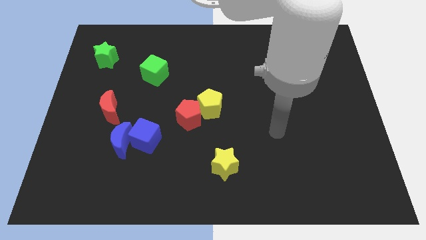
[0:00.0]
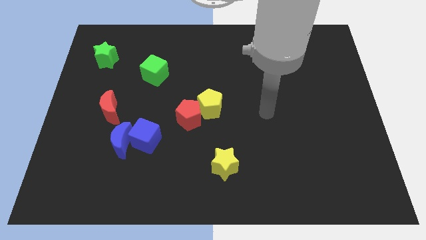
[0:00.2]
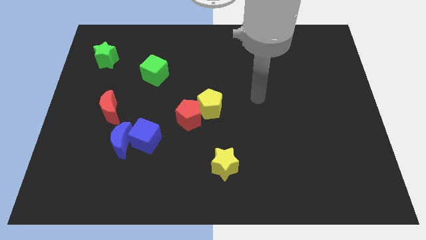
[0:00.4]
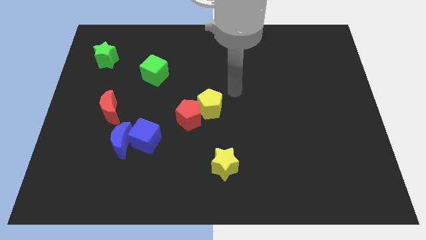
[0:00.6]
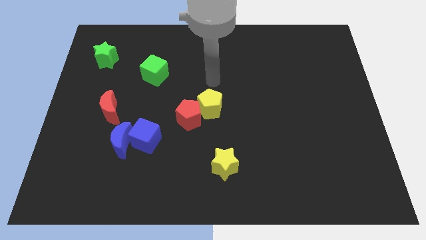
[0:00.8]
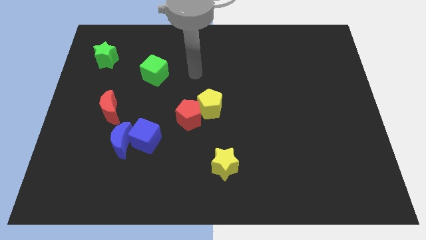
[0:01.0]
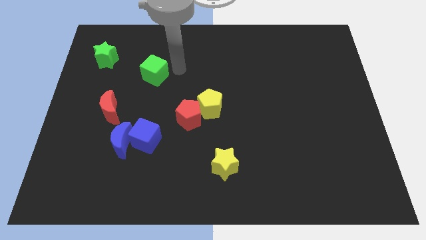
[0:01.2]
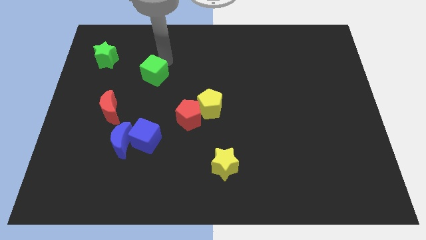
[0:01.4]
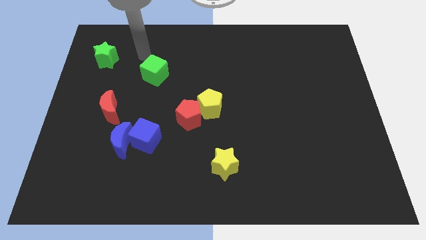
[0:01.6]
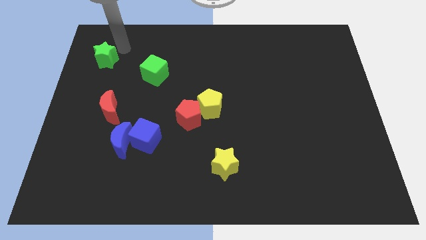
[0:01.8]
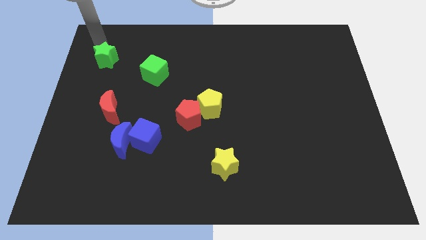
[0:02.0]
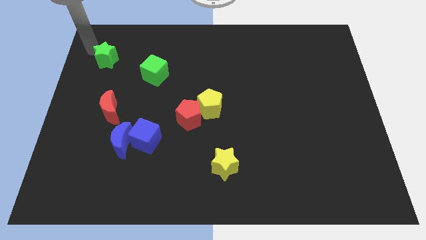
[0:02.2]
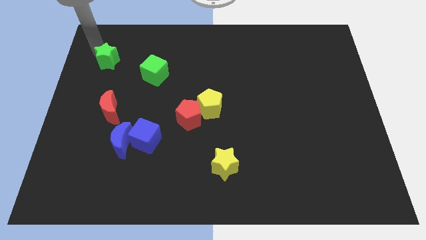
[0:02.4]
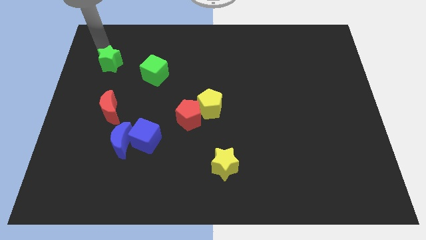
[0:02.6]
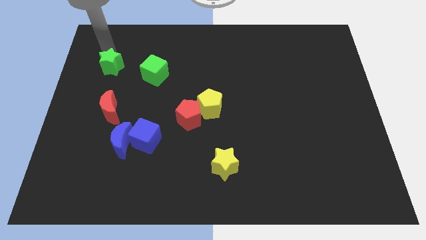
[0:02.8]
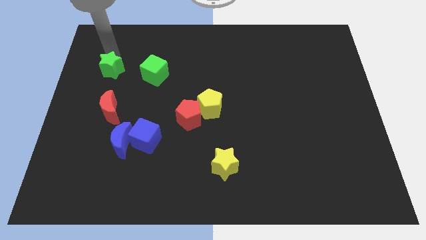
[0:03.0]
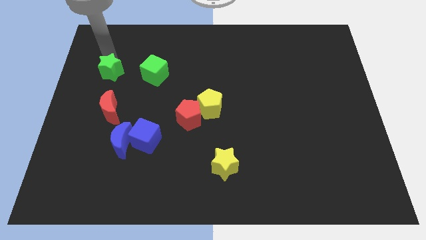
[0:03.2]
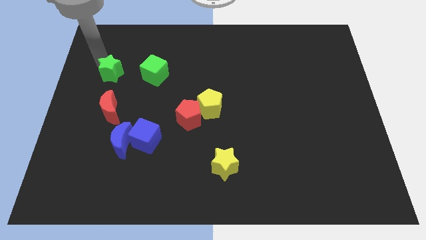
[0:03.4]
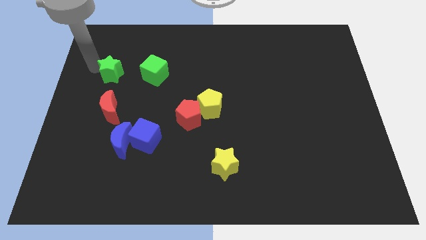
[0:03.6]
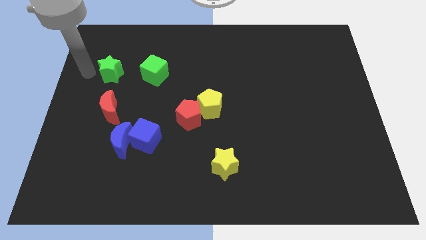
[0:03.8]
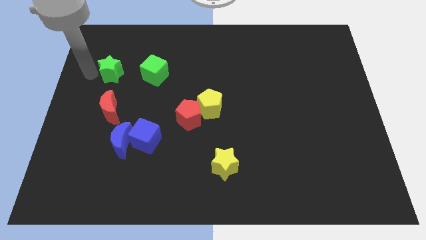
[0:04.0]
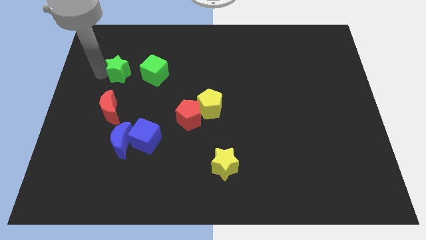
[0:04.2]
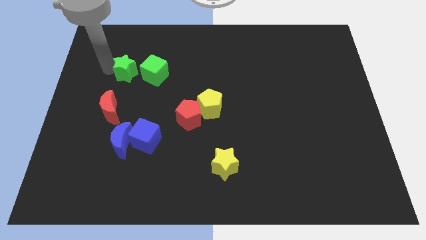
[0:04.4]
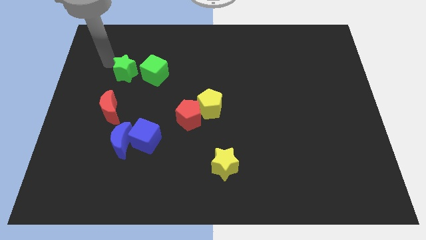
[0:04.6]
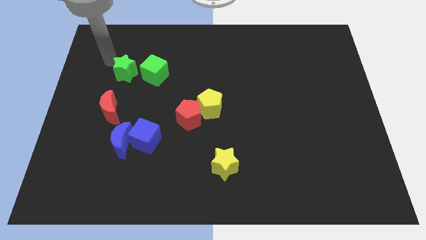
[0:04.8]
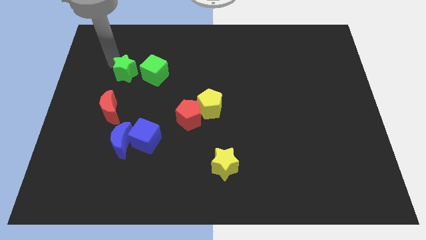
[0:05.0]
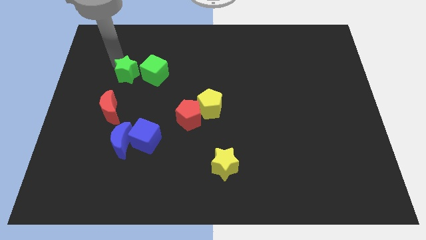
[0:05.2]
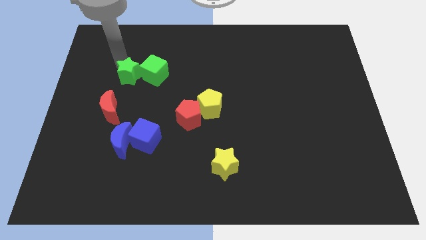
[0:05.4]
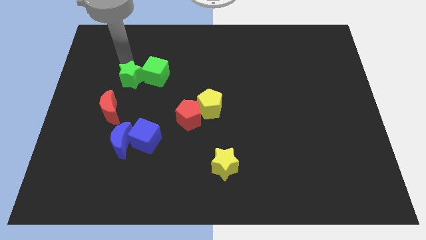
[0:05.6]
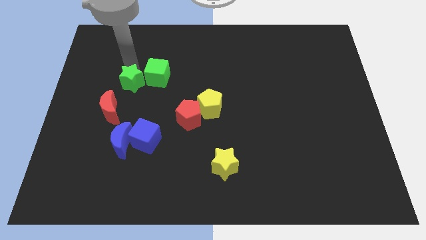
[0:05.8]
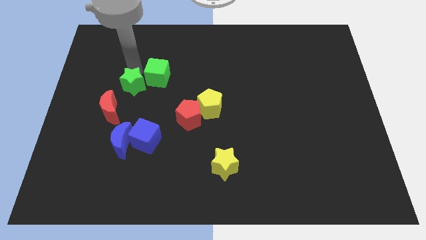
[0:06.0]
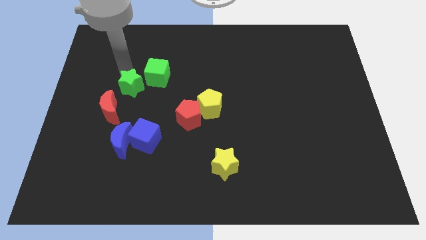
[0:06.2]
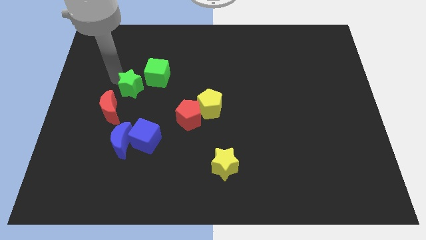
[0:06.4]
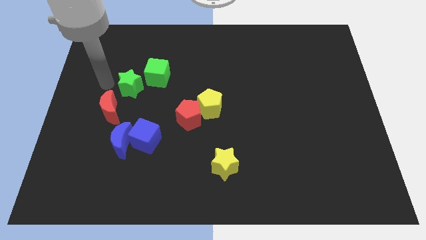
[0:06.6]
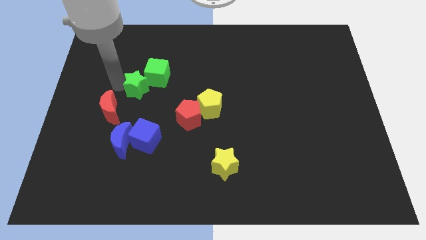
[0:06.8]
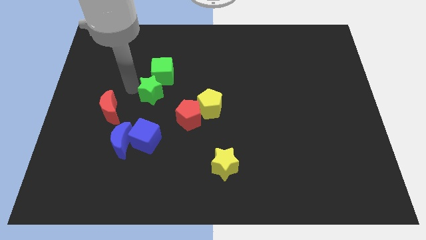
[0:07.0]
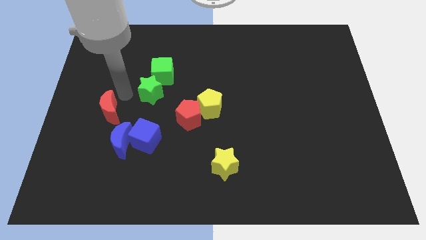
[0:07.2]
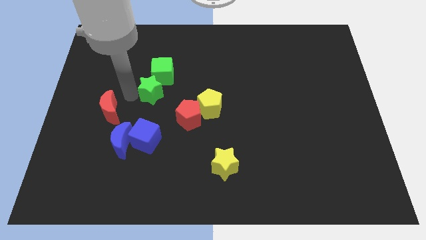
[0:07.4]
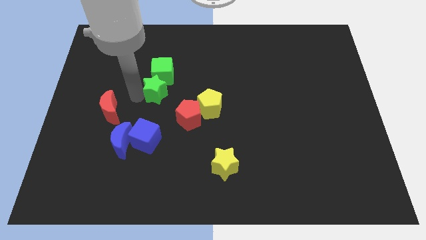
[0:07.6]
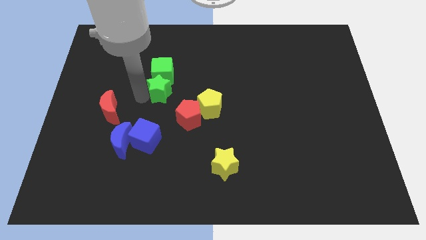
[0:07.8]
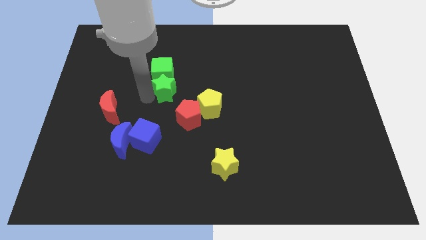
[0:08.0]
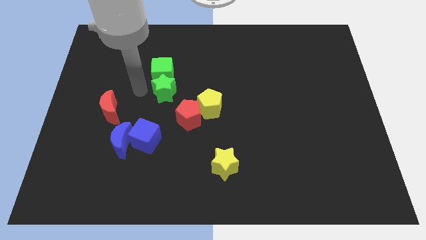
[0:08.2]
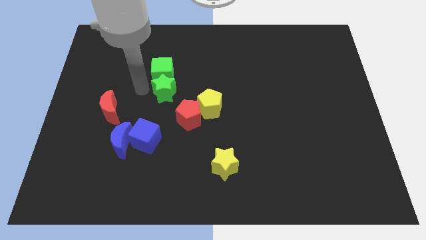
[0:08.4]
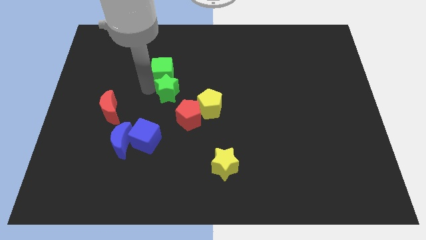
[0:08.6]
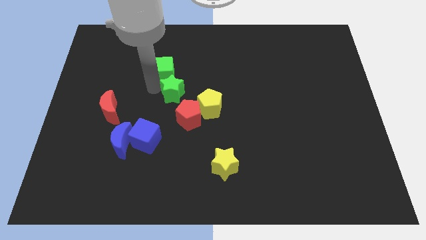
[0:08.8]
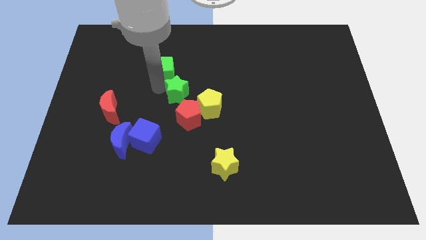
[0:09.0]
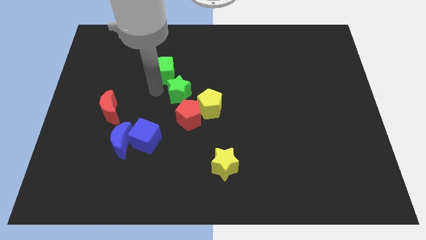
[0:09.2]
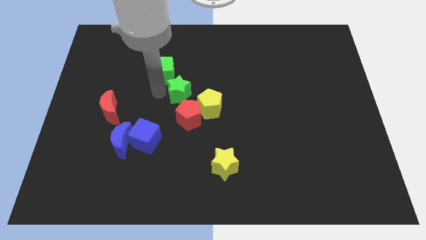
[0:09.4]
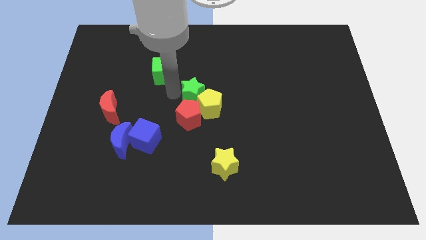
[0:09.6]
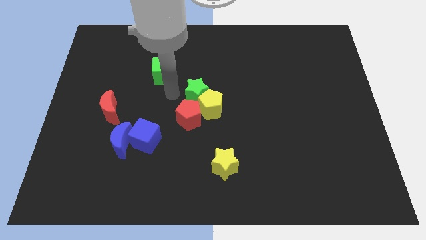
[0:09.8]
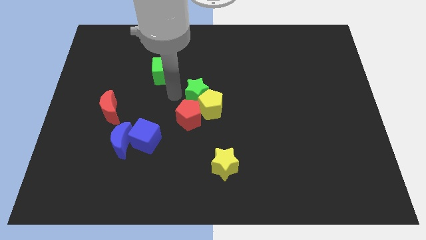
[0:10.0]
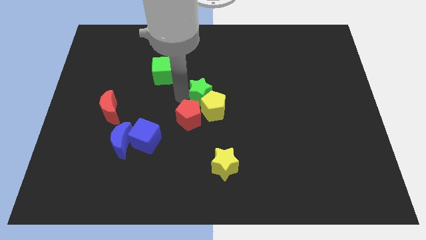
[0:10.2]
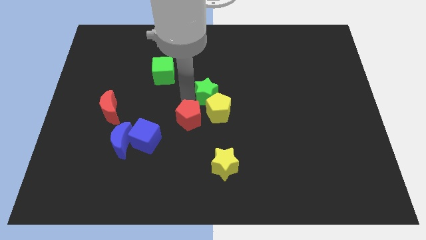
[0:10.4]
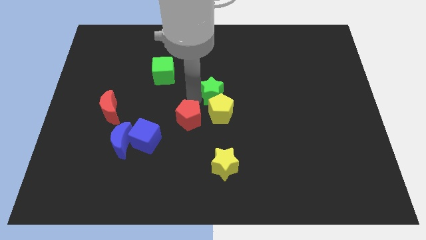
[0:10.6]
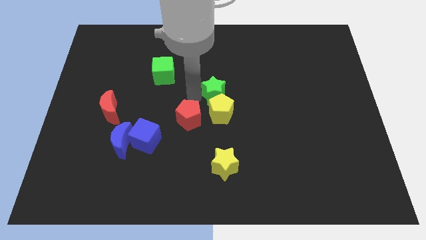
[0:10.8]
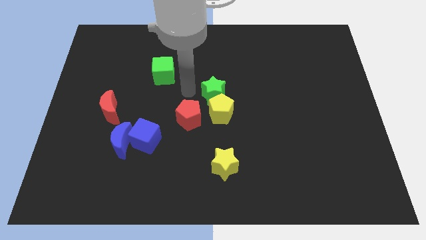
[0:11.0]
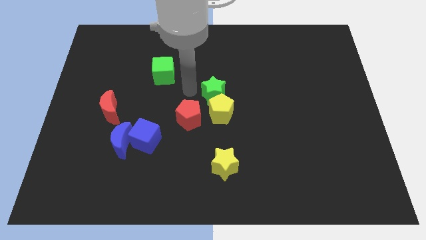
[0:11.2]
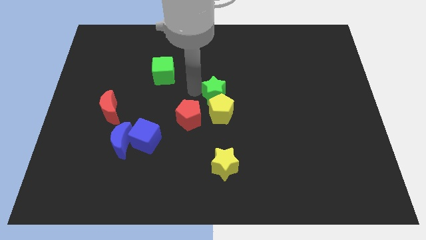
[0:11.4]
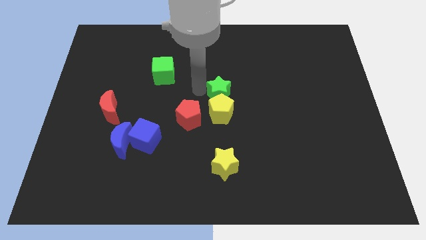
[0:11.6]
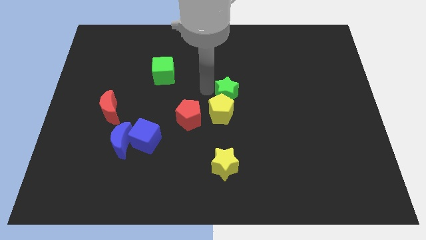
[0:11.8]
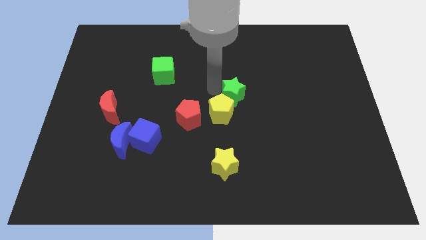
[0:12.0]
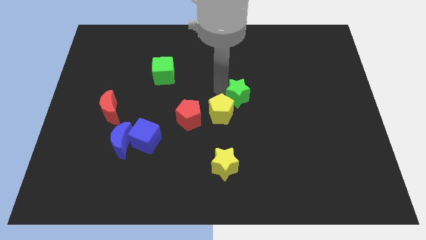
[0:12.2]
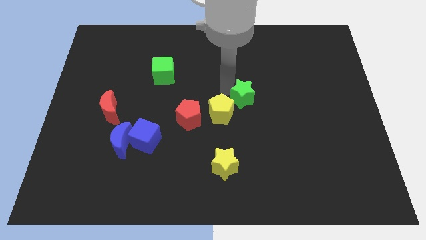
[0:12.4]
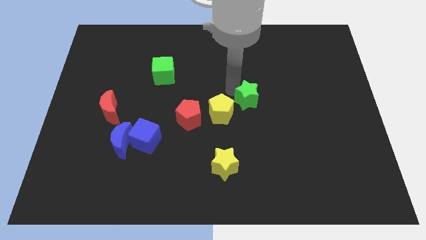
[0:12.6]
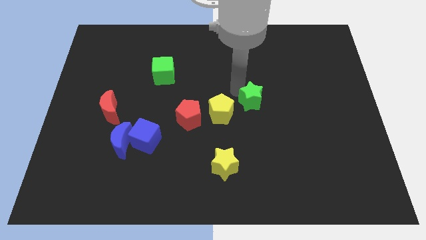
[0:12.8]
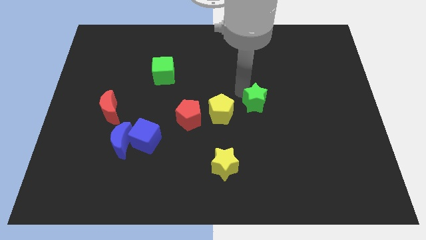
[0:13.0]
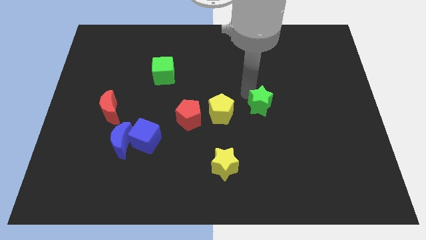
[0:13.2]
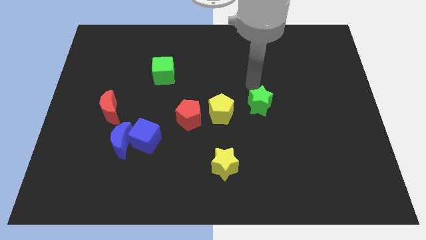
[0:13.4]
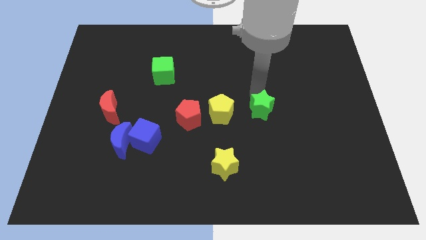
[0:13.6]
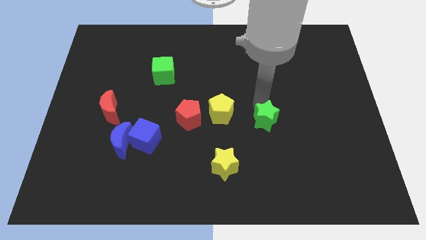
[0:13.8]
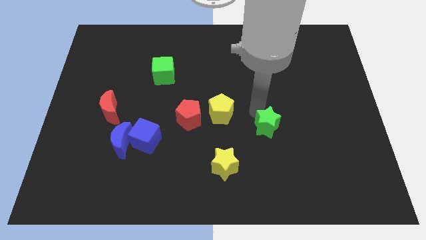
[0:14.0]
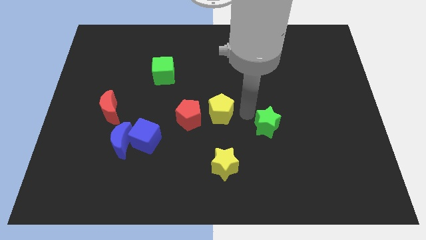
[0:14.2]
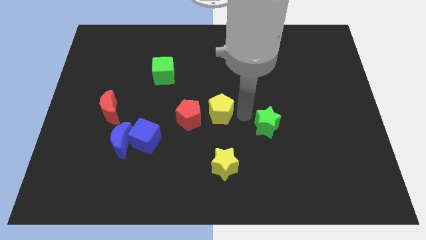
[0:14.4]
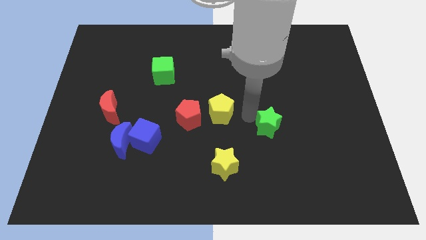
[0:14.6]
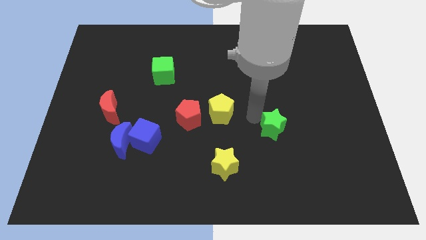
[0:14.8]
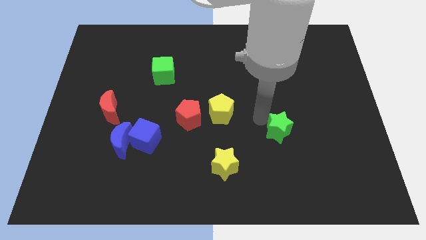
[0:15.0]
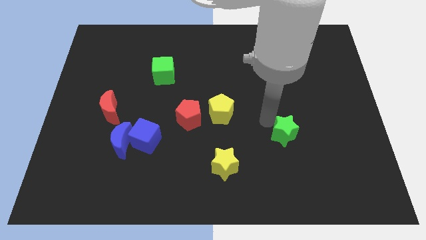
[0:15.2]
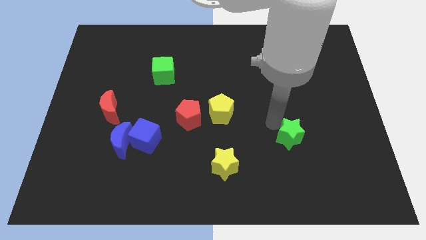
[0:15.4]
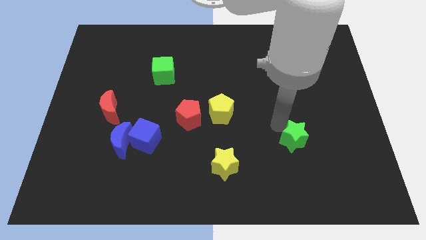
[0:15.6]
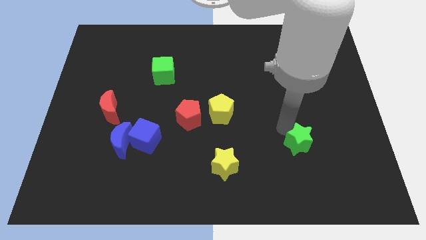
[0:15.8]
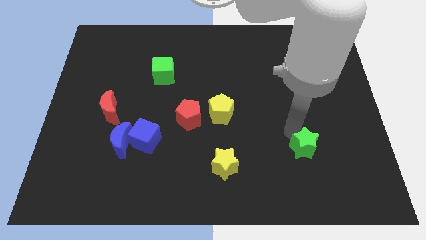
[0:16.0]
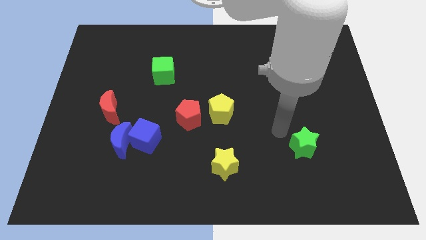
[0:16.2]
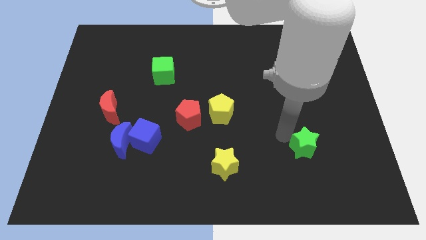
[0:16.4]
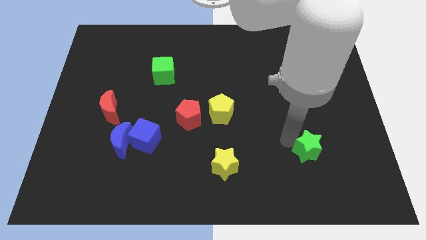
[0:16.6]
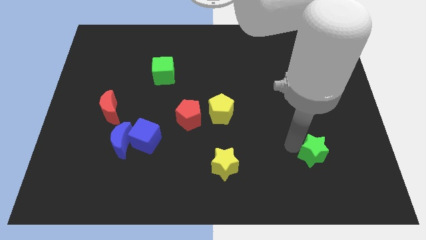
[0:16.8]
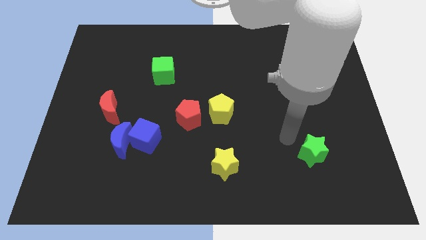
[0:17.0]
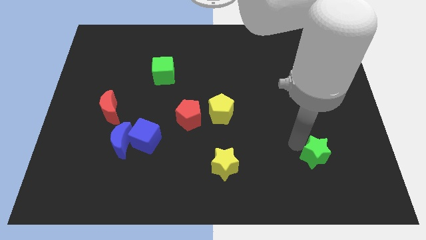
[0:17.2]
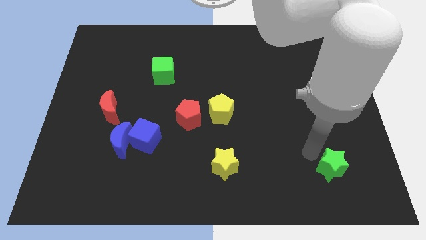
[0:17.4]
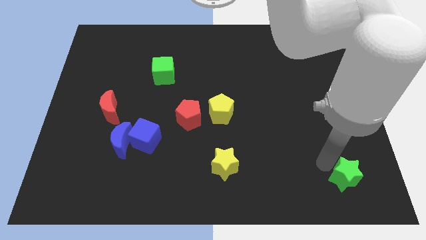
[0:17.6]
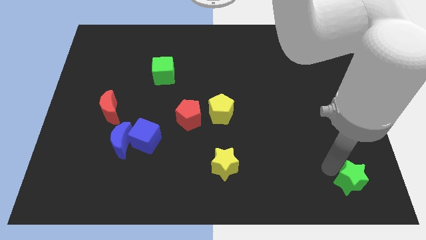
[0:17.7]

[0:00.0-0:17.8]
move the green star to the bottom right
